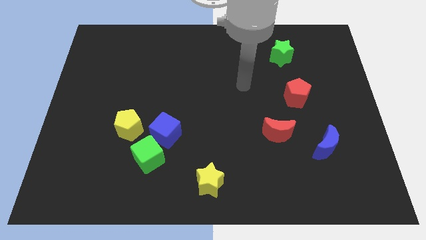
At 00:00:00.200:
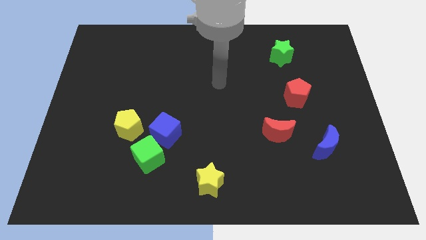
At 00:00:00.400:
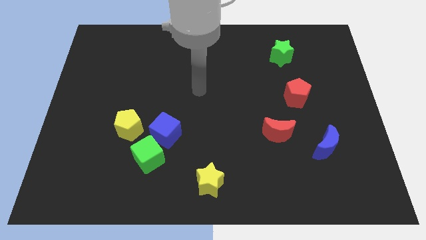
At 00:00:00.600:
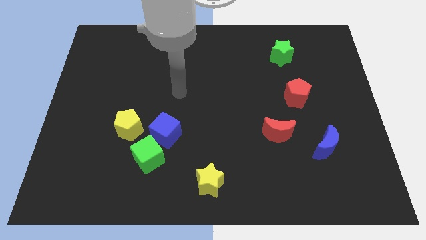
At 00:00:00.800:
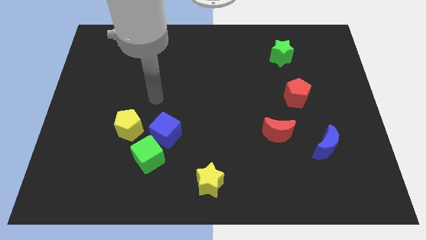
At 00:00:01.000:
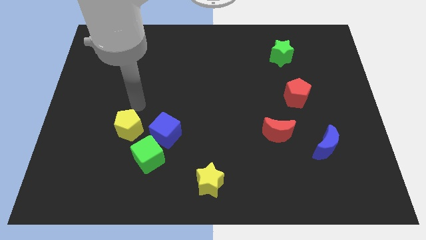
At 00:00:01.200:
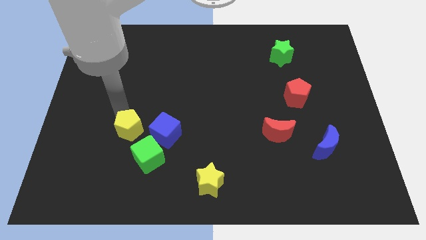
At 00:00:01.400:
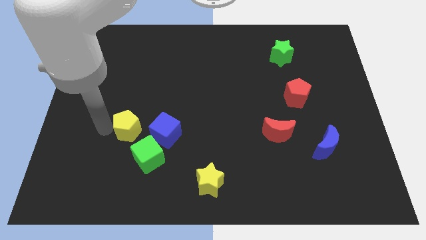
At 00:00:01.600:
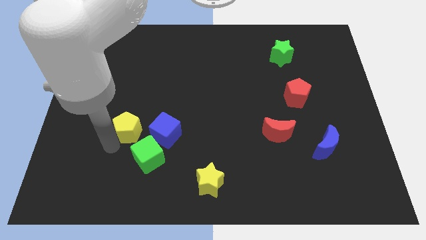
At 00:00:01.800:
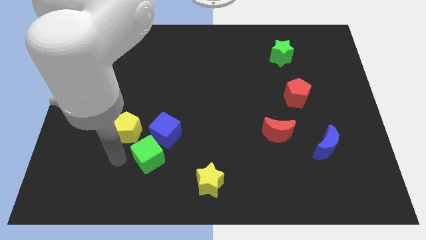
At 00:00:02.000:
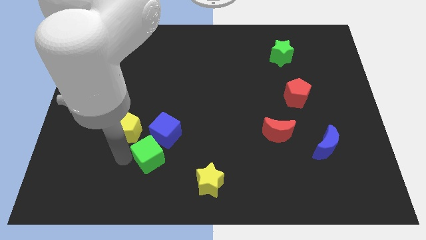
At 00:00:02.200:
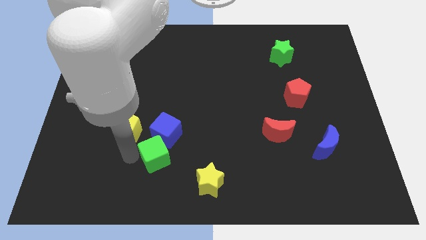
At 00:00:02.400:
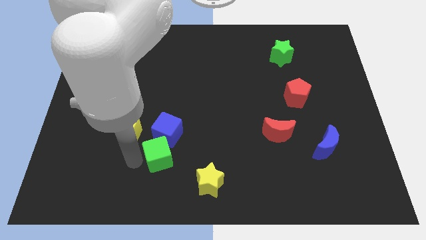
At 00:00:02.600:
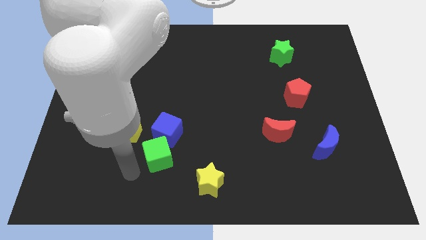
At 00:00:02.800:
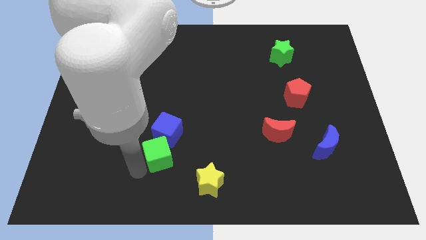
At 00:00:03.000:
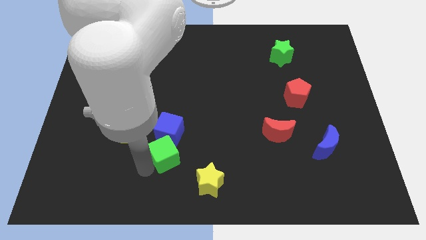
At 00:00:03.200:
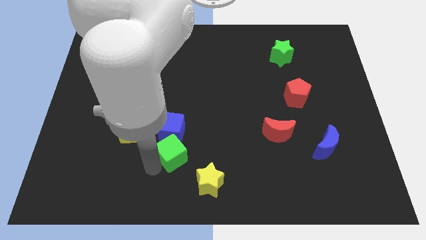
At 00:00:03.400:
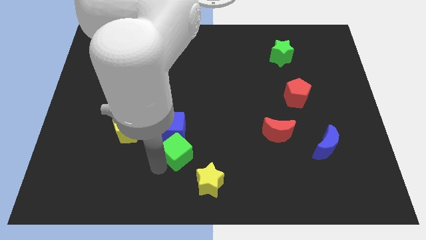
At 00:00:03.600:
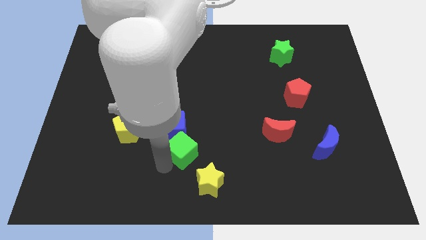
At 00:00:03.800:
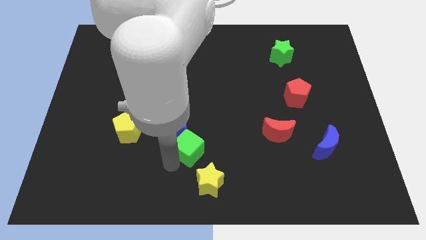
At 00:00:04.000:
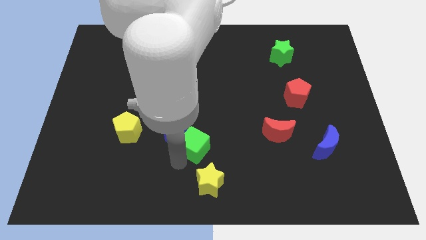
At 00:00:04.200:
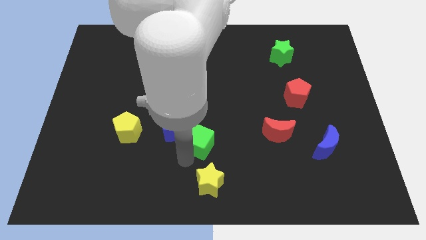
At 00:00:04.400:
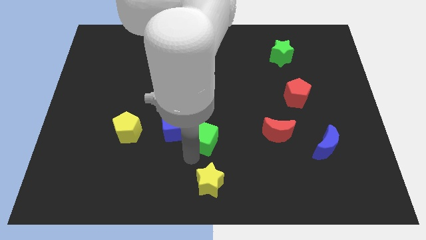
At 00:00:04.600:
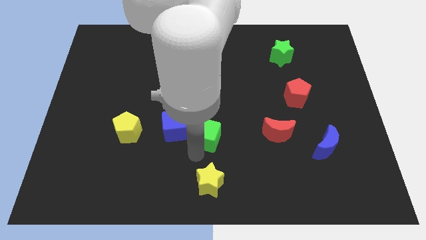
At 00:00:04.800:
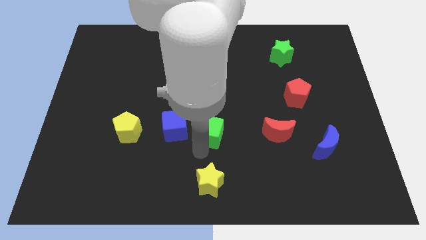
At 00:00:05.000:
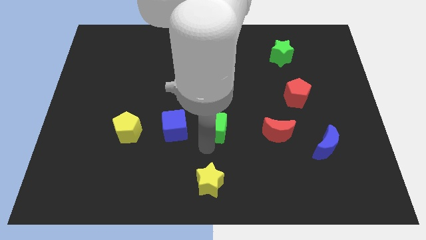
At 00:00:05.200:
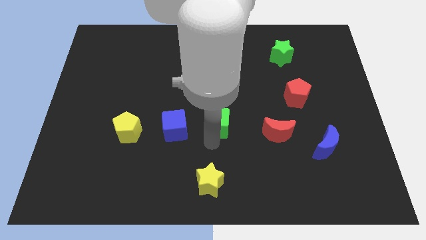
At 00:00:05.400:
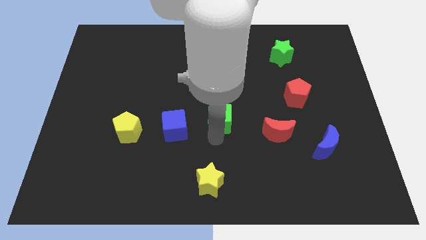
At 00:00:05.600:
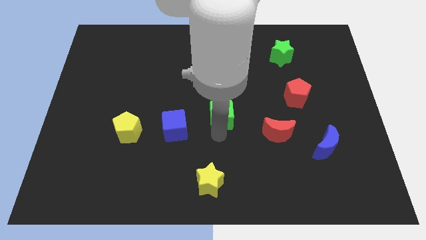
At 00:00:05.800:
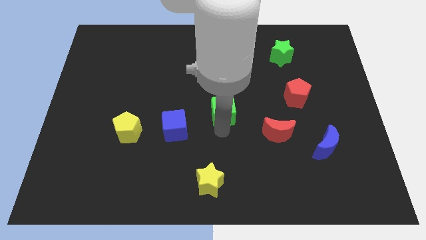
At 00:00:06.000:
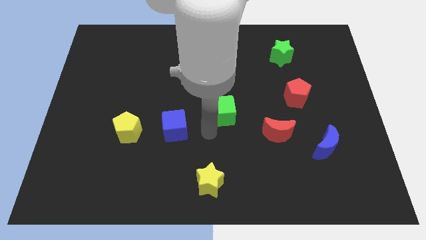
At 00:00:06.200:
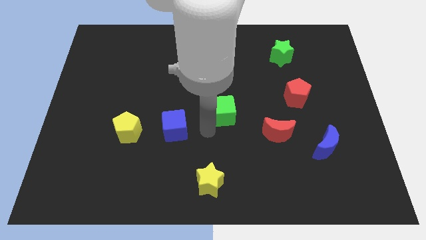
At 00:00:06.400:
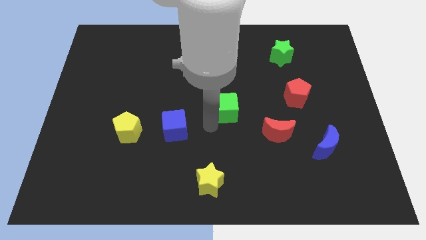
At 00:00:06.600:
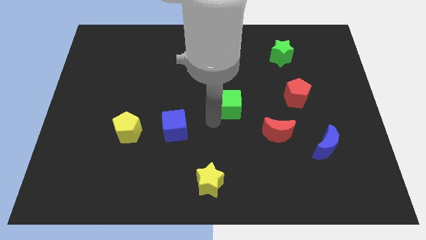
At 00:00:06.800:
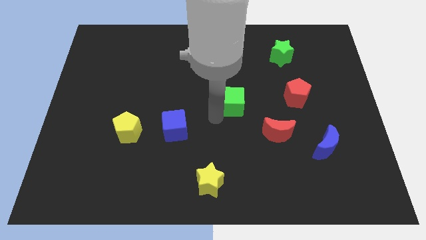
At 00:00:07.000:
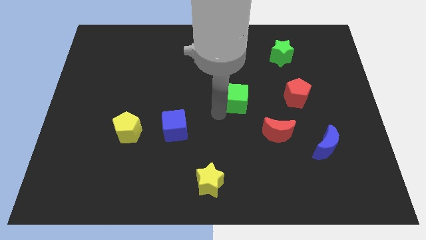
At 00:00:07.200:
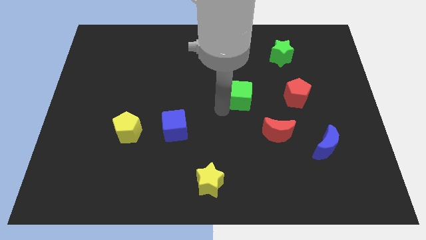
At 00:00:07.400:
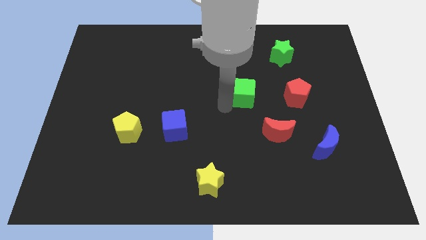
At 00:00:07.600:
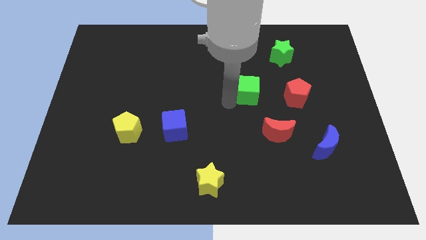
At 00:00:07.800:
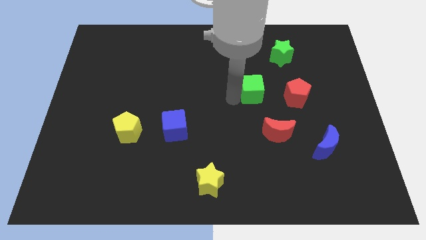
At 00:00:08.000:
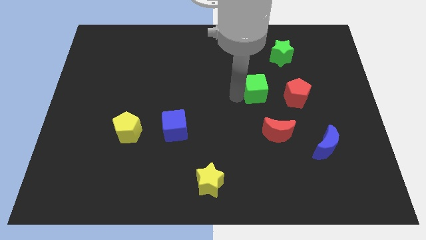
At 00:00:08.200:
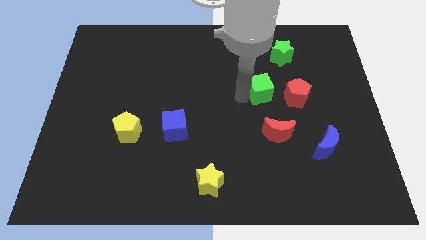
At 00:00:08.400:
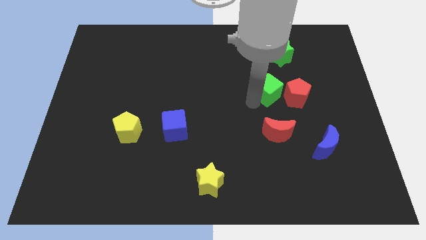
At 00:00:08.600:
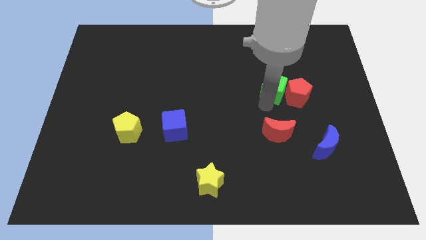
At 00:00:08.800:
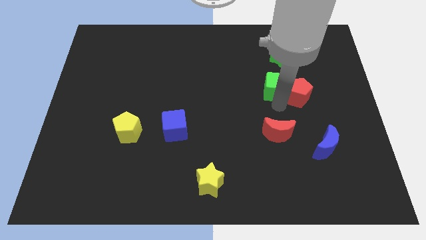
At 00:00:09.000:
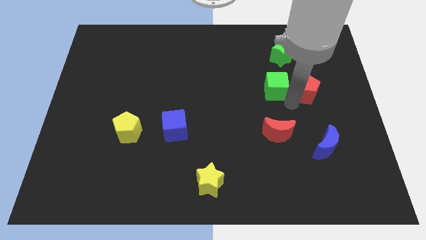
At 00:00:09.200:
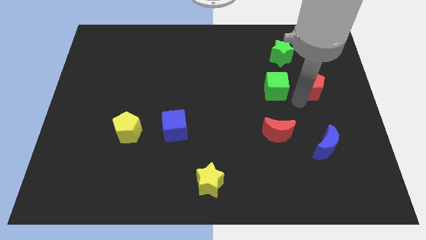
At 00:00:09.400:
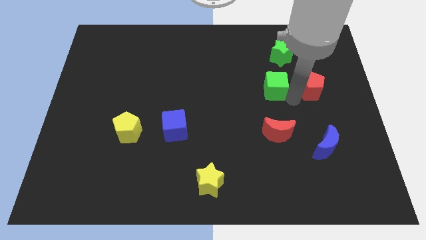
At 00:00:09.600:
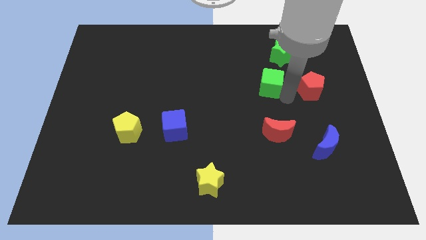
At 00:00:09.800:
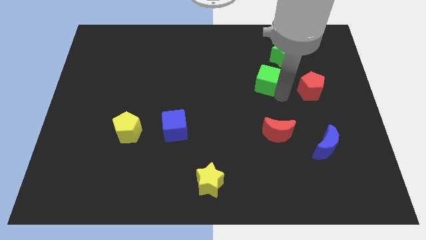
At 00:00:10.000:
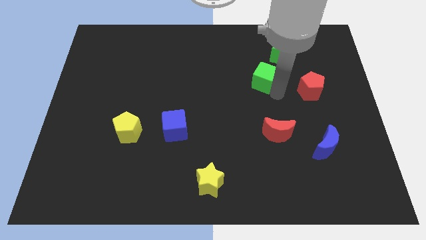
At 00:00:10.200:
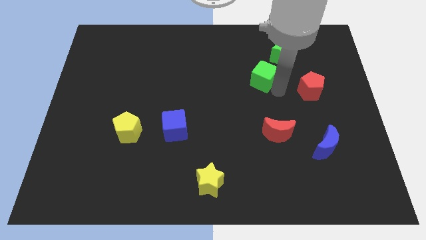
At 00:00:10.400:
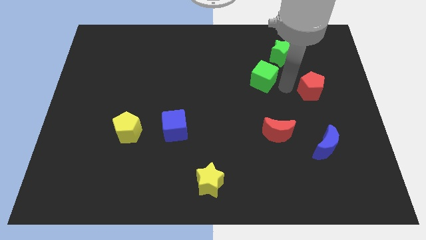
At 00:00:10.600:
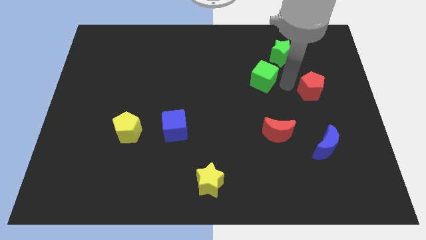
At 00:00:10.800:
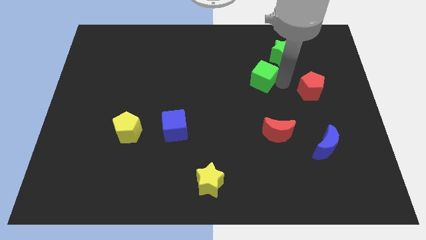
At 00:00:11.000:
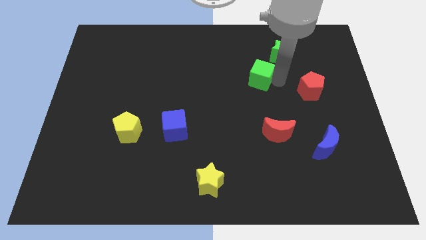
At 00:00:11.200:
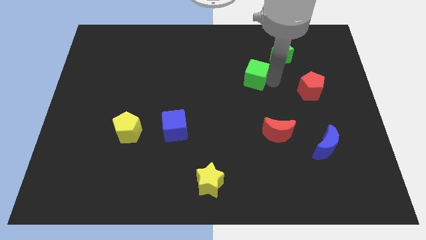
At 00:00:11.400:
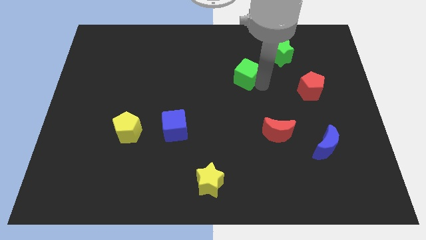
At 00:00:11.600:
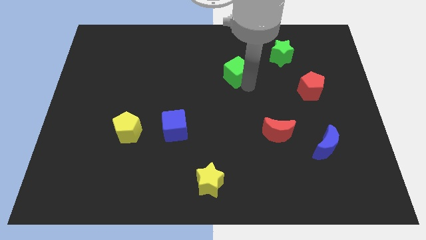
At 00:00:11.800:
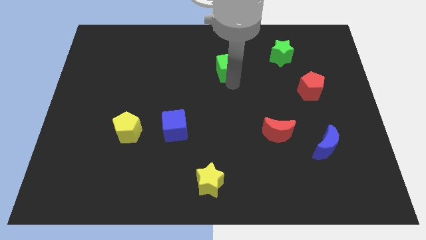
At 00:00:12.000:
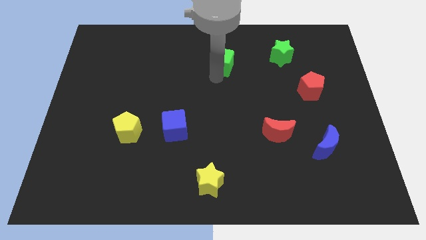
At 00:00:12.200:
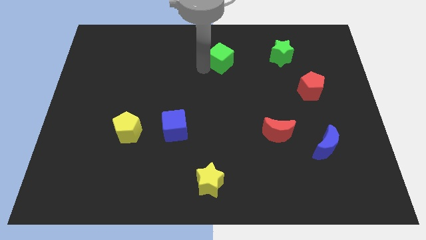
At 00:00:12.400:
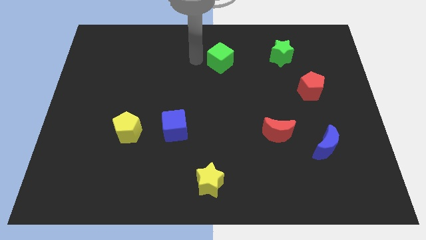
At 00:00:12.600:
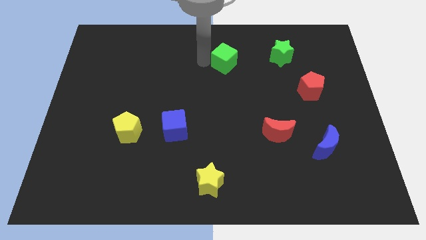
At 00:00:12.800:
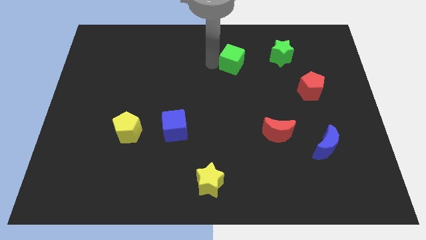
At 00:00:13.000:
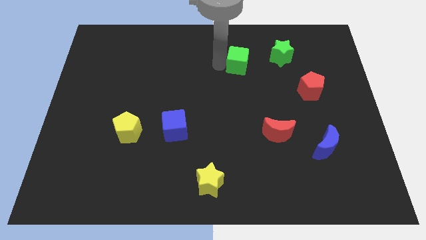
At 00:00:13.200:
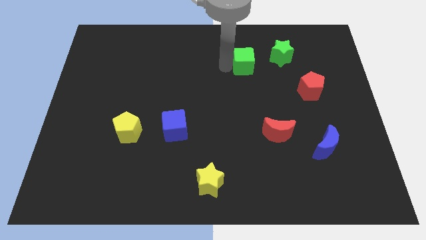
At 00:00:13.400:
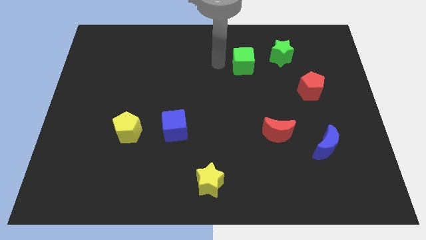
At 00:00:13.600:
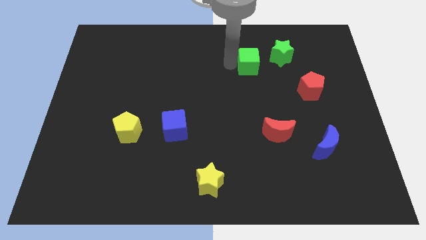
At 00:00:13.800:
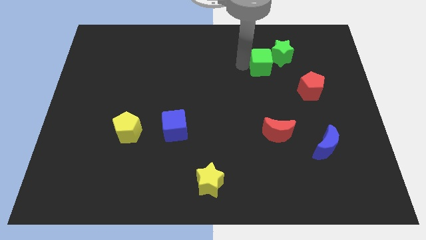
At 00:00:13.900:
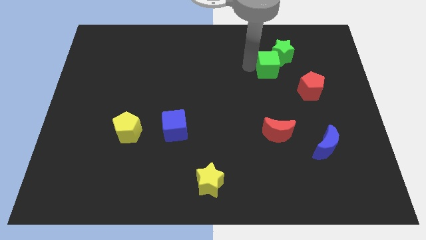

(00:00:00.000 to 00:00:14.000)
push the green cube close to the green star
